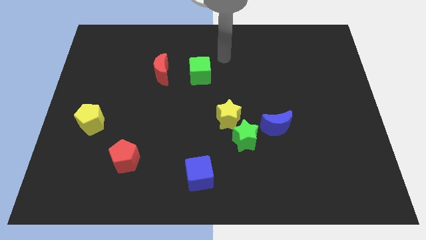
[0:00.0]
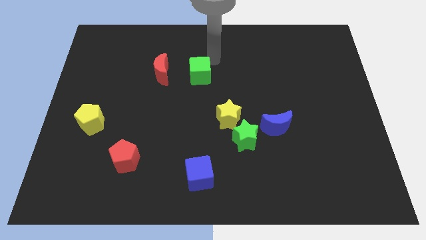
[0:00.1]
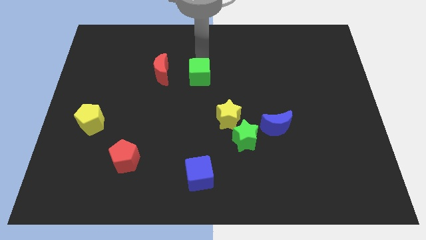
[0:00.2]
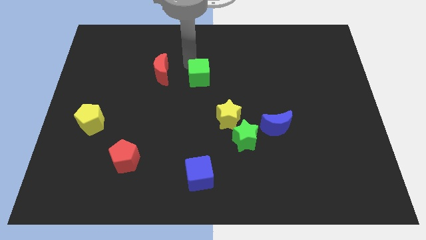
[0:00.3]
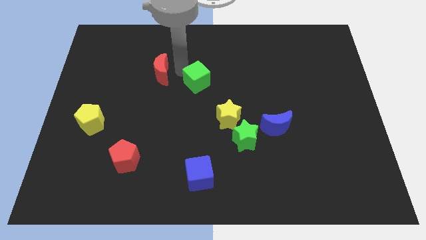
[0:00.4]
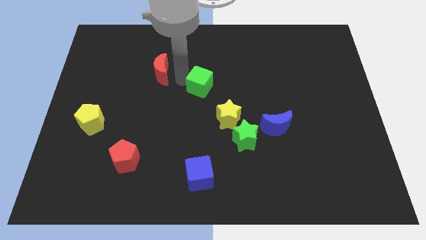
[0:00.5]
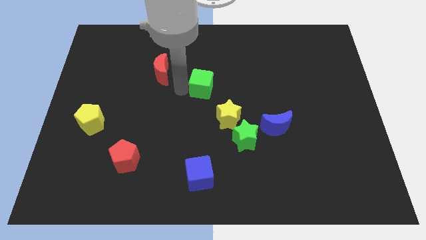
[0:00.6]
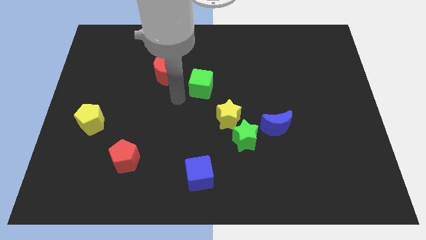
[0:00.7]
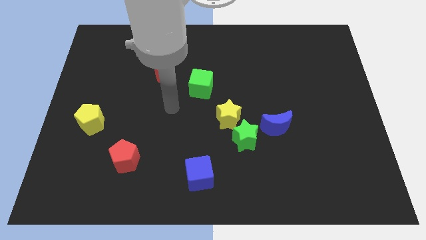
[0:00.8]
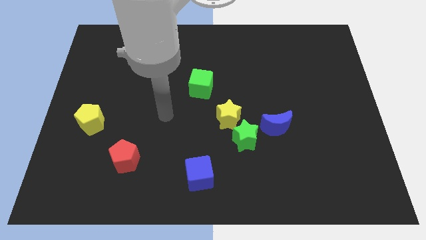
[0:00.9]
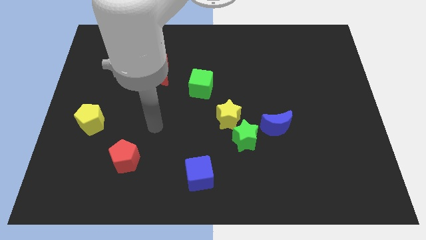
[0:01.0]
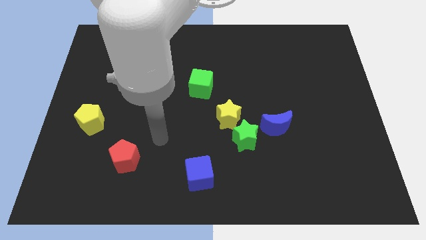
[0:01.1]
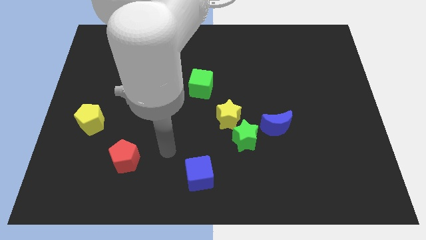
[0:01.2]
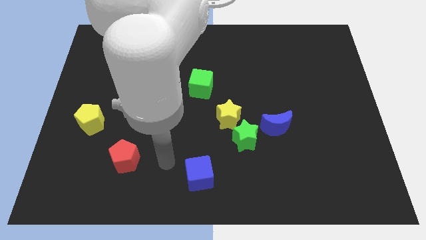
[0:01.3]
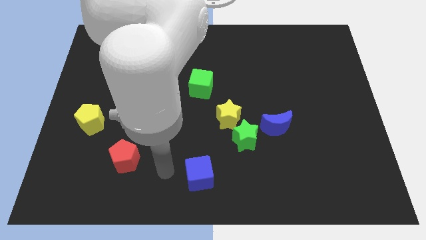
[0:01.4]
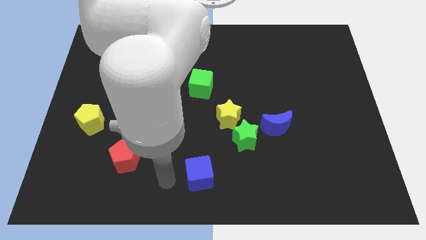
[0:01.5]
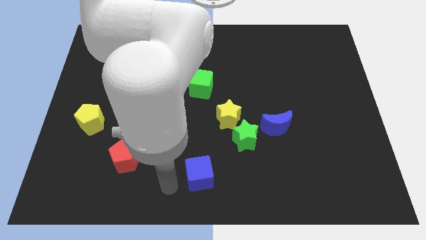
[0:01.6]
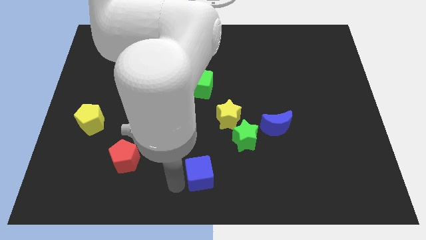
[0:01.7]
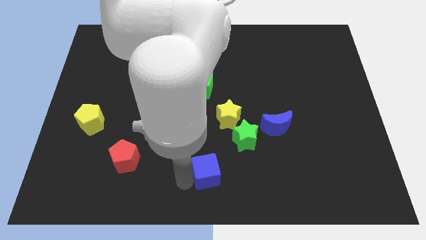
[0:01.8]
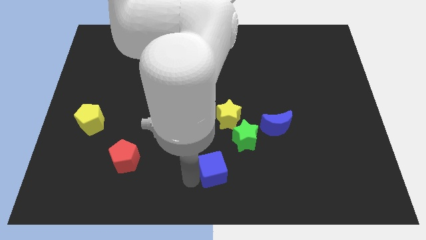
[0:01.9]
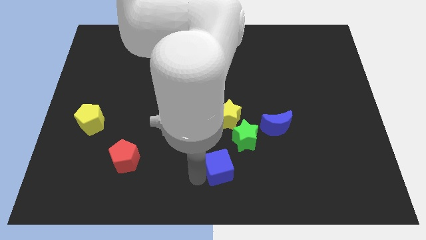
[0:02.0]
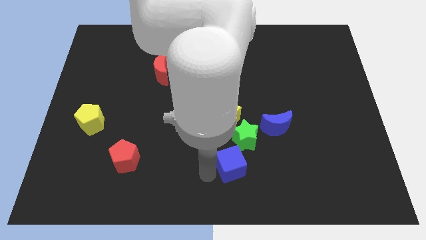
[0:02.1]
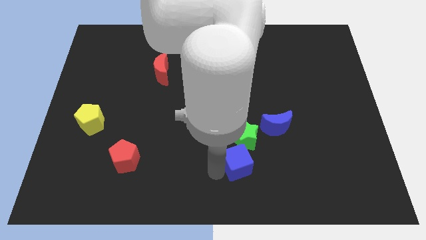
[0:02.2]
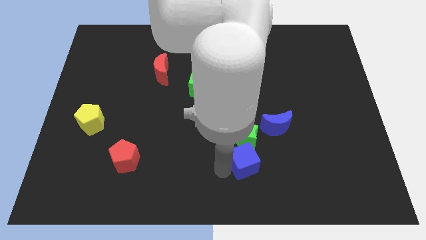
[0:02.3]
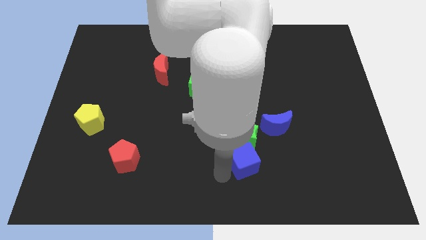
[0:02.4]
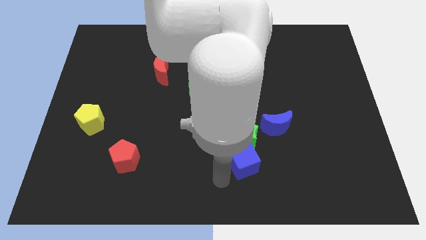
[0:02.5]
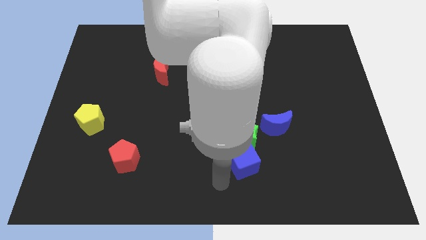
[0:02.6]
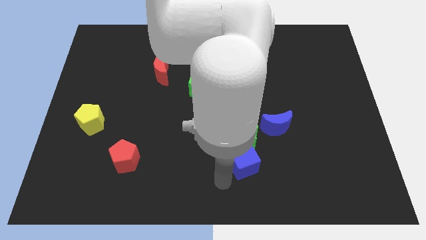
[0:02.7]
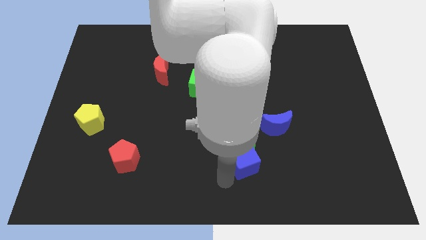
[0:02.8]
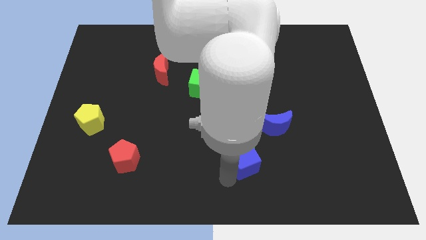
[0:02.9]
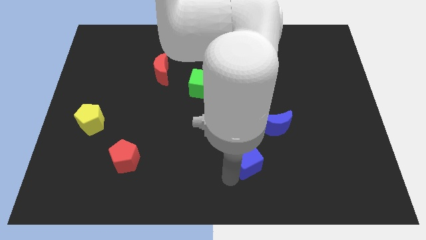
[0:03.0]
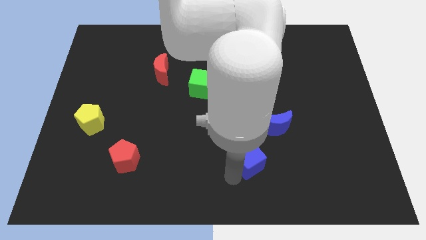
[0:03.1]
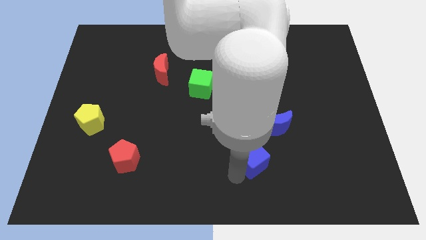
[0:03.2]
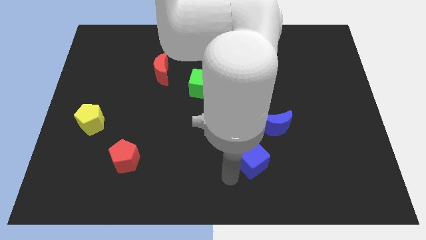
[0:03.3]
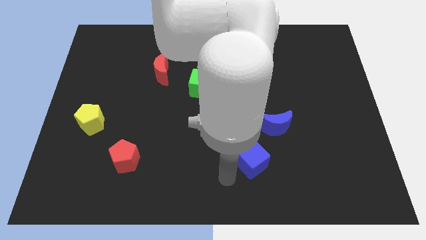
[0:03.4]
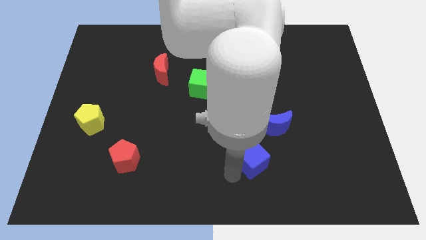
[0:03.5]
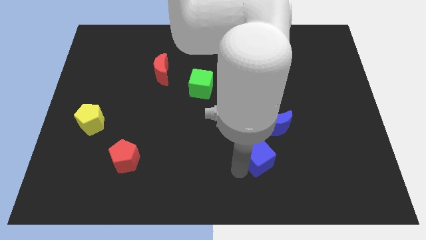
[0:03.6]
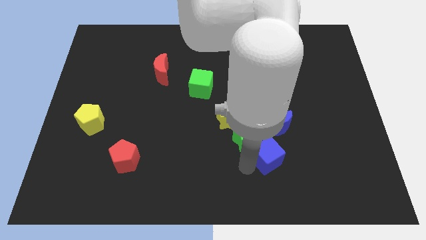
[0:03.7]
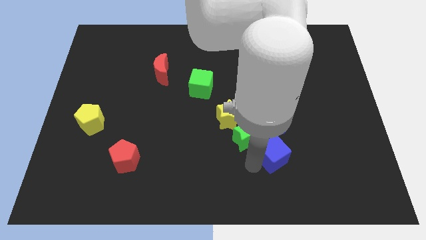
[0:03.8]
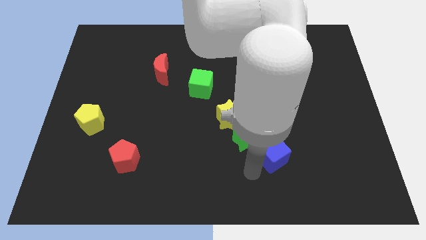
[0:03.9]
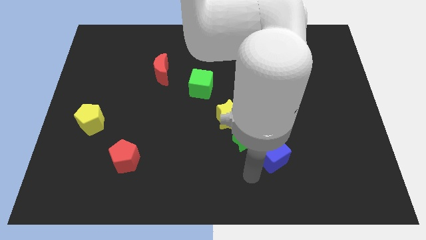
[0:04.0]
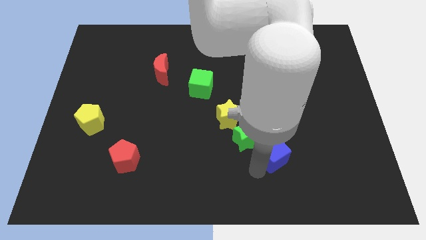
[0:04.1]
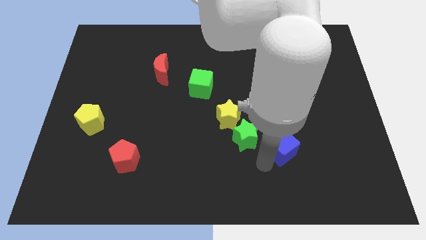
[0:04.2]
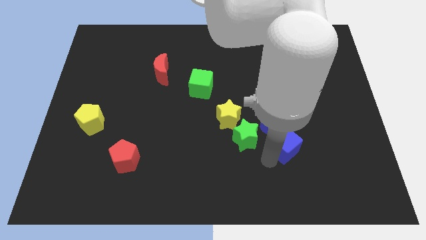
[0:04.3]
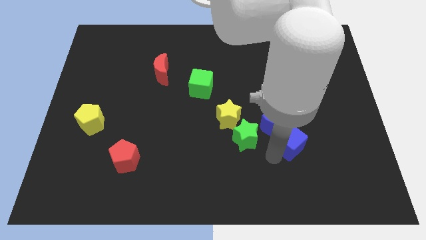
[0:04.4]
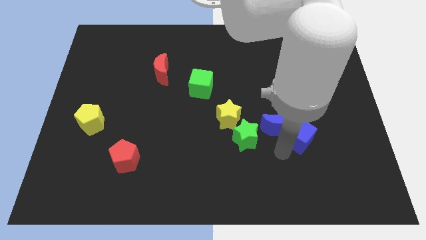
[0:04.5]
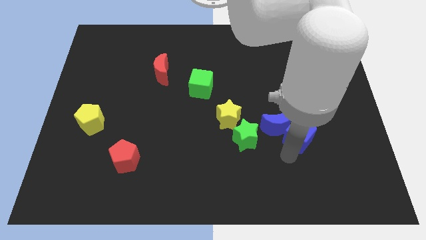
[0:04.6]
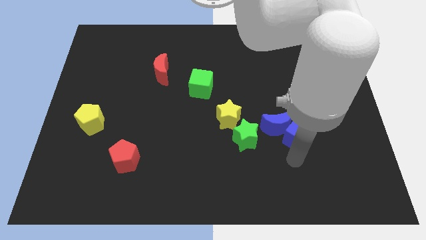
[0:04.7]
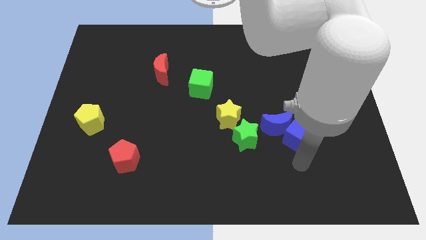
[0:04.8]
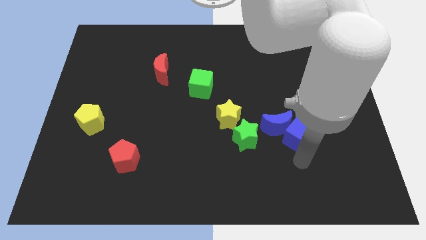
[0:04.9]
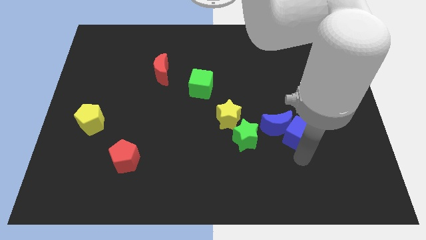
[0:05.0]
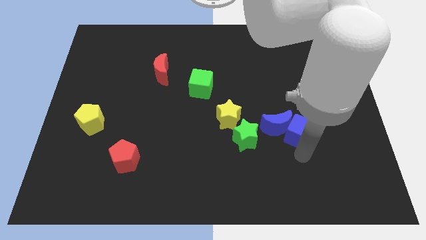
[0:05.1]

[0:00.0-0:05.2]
slide the blue cube upwards and right diagonally

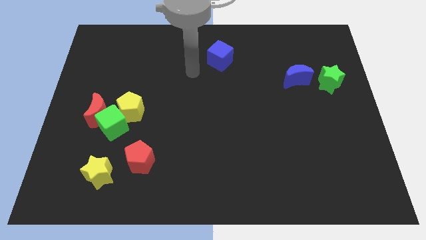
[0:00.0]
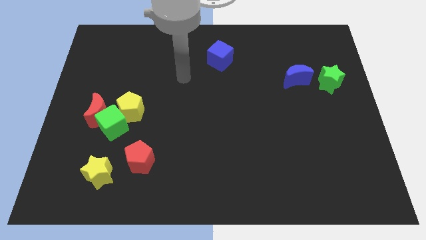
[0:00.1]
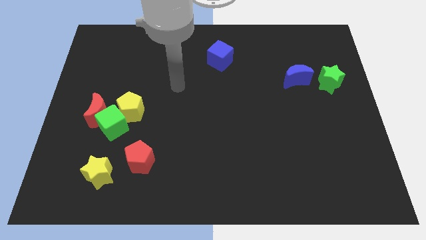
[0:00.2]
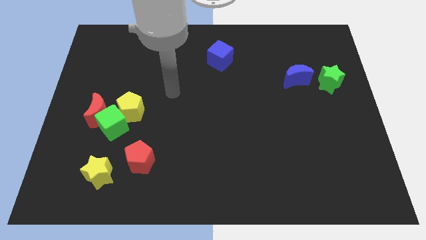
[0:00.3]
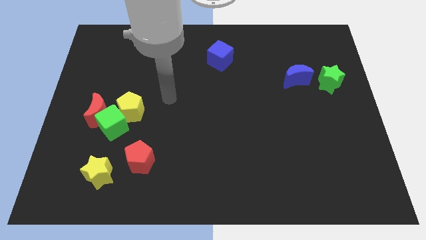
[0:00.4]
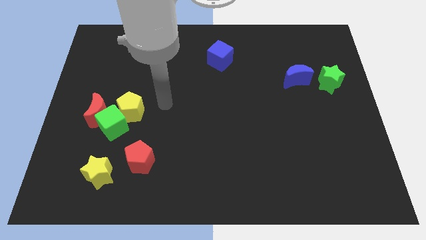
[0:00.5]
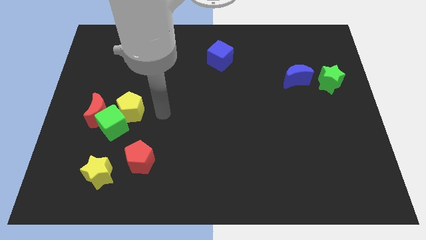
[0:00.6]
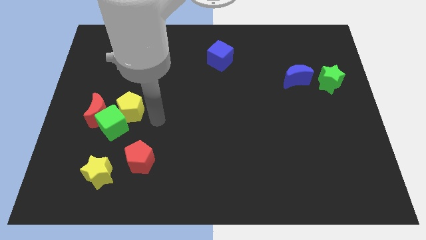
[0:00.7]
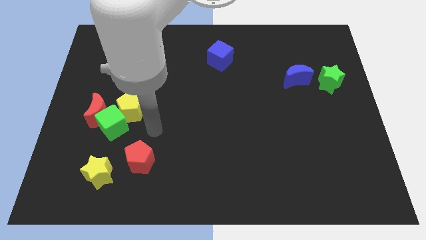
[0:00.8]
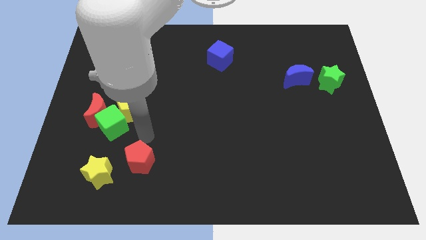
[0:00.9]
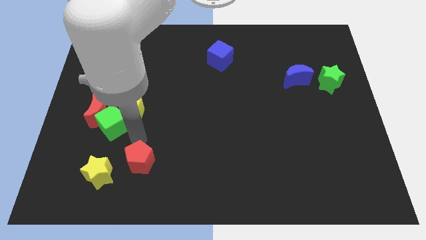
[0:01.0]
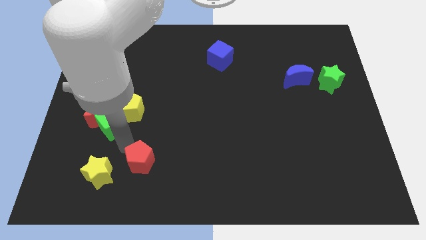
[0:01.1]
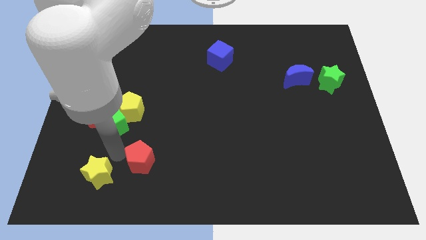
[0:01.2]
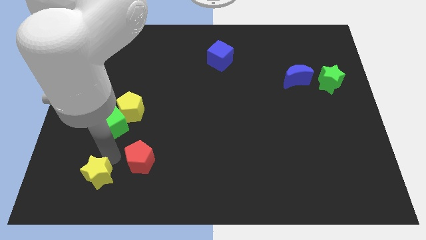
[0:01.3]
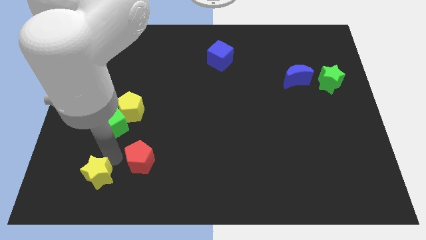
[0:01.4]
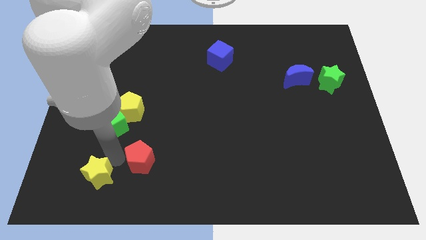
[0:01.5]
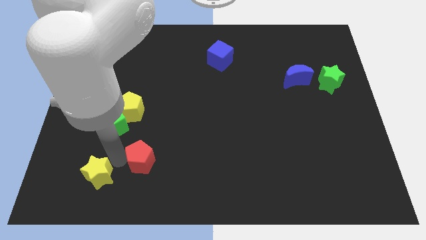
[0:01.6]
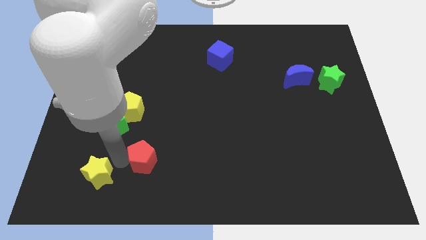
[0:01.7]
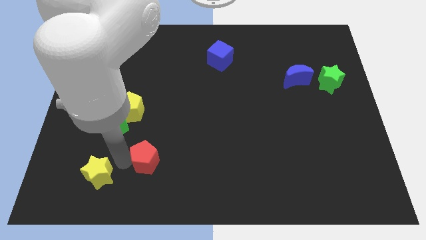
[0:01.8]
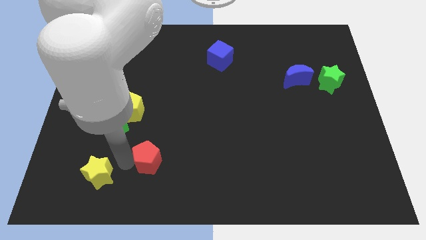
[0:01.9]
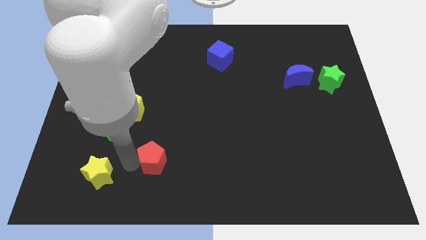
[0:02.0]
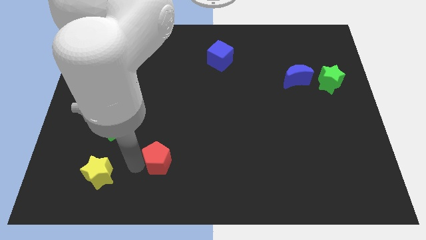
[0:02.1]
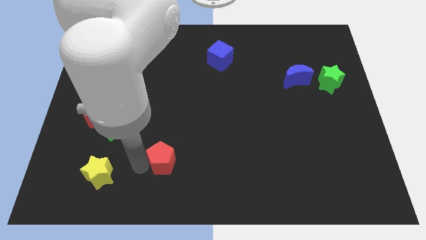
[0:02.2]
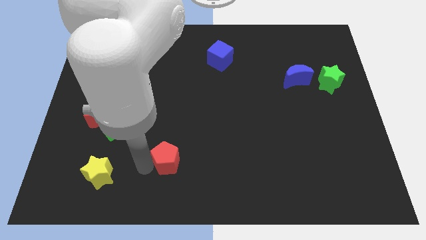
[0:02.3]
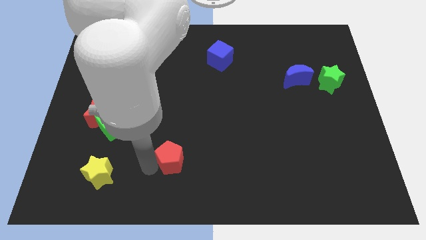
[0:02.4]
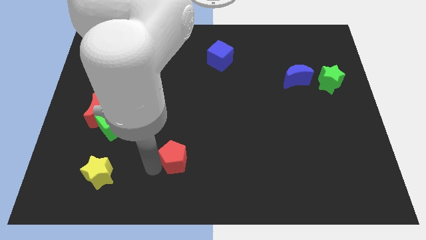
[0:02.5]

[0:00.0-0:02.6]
move the red pentagon somewhat right

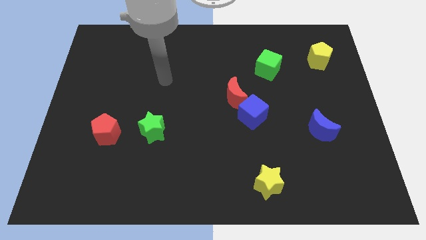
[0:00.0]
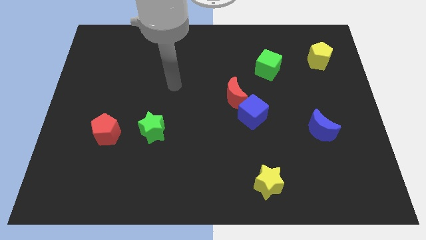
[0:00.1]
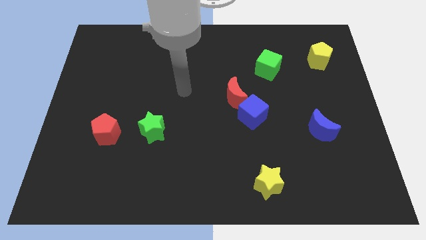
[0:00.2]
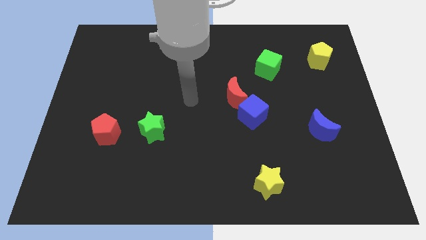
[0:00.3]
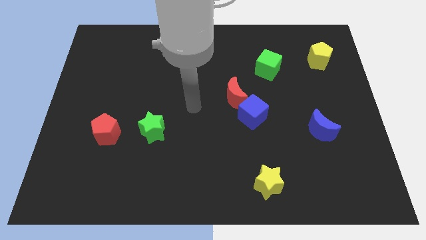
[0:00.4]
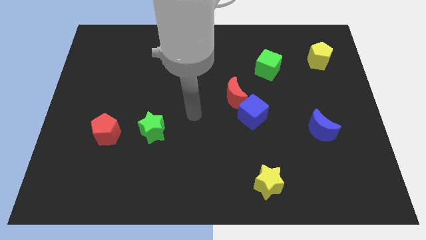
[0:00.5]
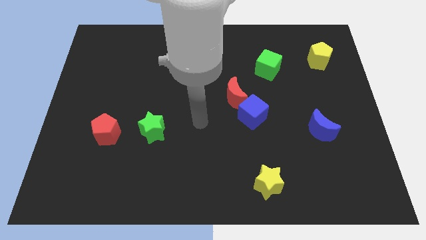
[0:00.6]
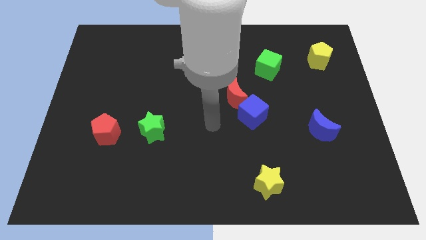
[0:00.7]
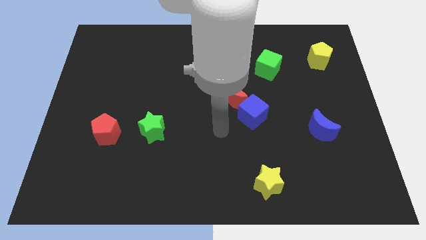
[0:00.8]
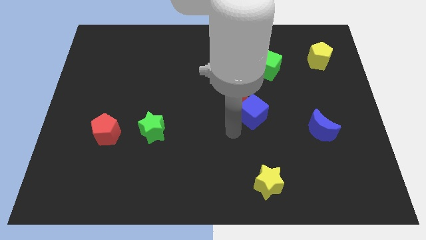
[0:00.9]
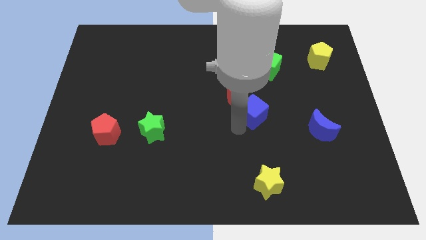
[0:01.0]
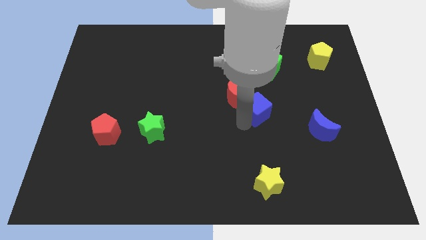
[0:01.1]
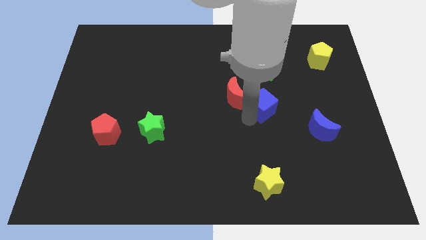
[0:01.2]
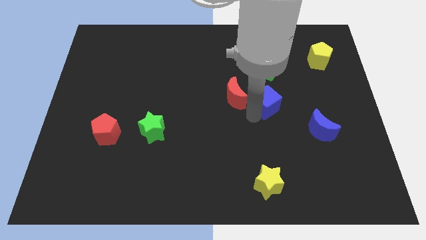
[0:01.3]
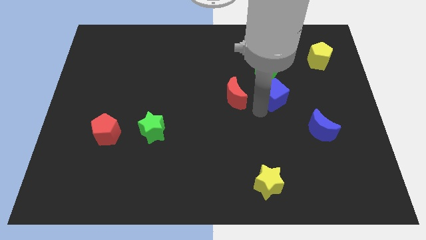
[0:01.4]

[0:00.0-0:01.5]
push the blue cube somewhat upwards and to the right diagonally
